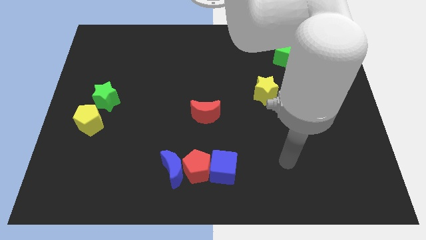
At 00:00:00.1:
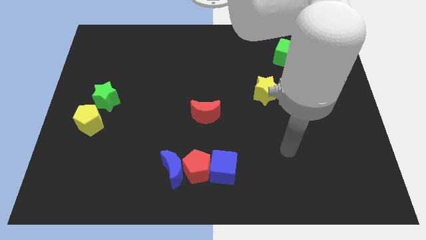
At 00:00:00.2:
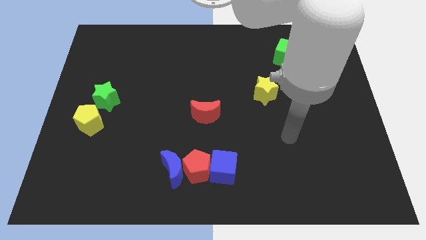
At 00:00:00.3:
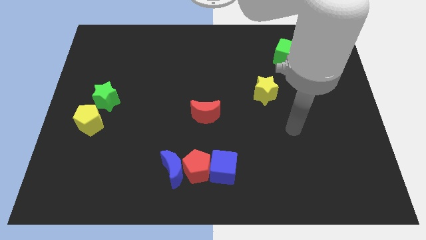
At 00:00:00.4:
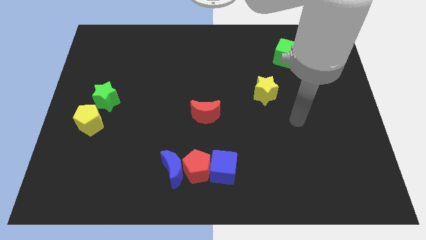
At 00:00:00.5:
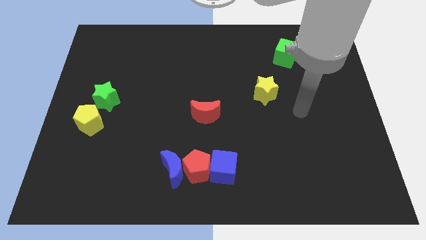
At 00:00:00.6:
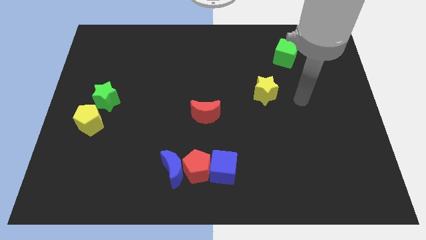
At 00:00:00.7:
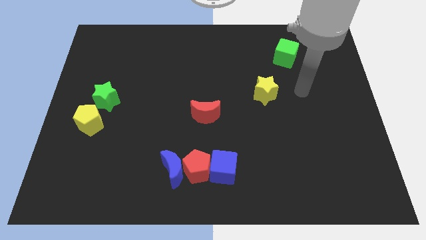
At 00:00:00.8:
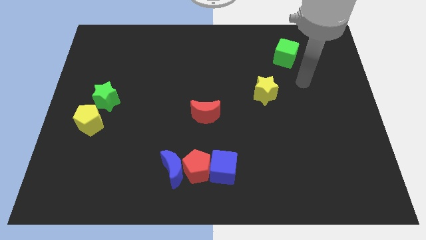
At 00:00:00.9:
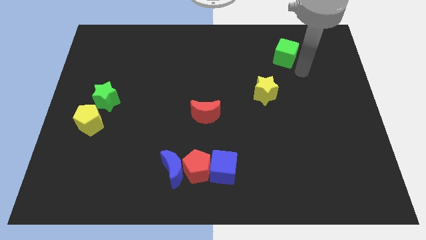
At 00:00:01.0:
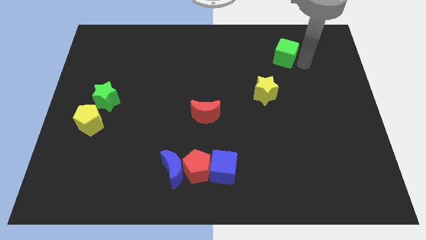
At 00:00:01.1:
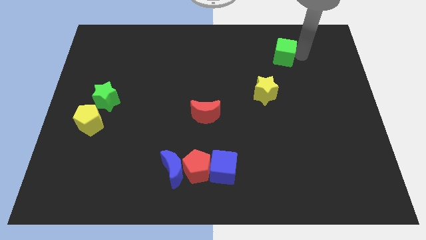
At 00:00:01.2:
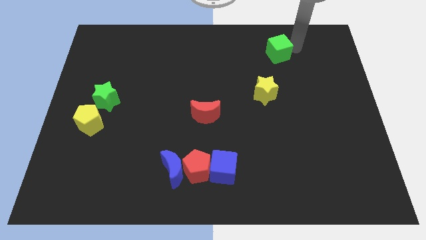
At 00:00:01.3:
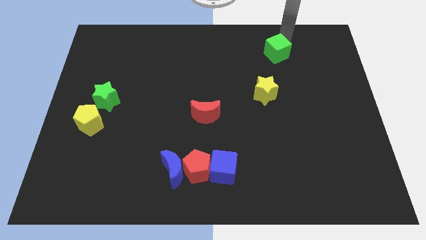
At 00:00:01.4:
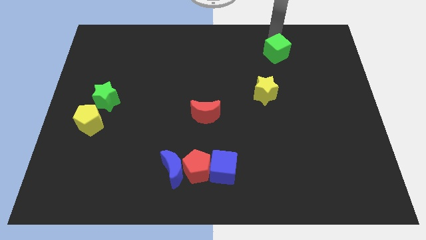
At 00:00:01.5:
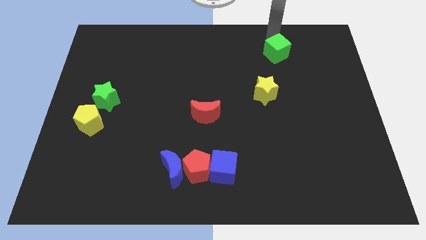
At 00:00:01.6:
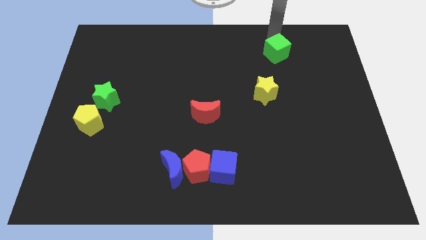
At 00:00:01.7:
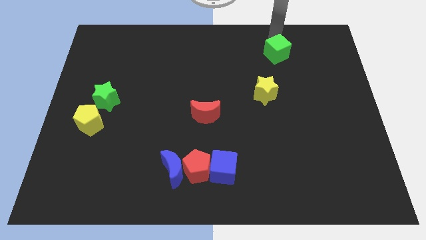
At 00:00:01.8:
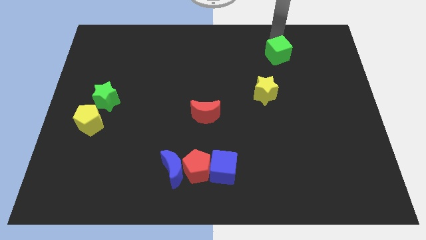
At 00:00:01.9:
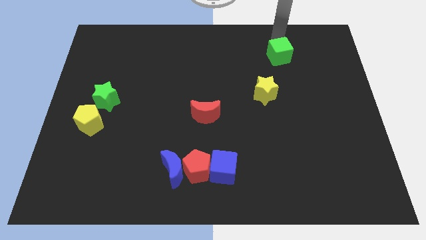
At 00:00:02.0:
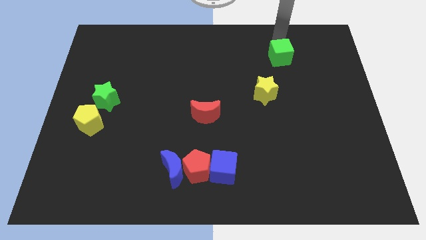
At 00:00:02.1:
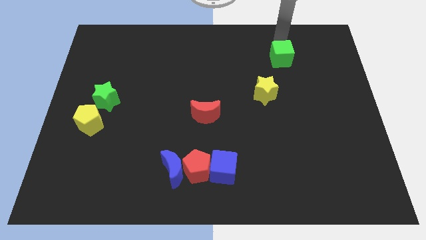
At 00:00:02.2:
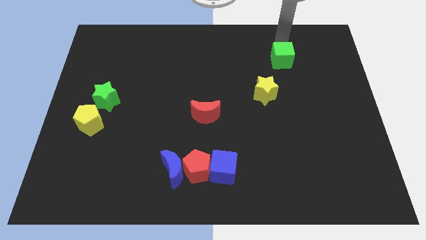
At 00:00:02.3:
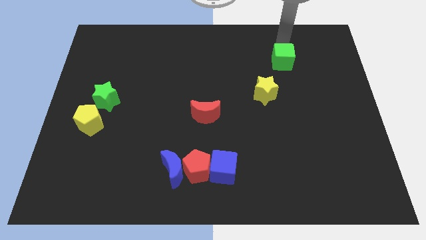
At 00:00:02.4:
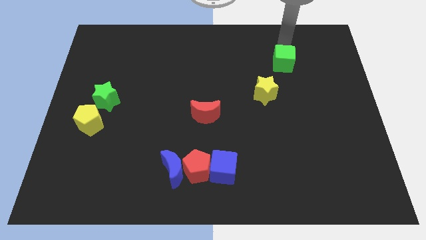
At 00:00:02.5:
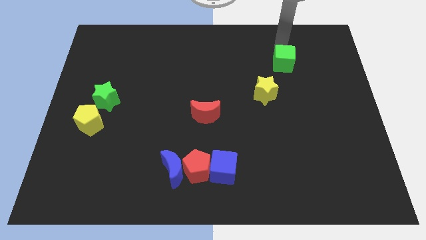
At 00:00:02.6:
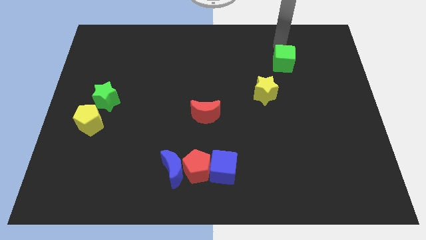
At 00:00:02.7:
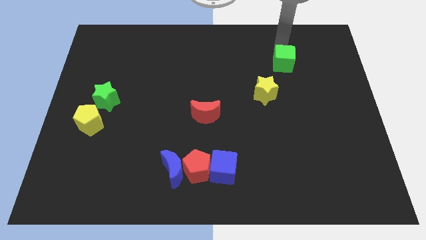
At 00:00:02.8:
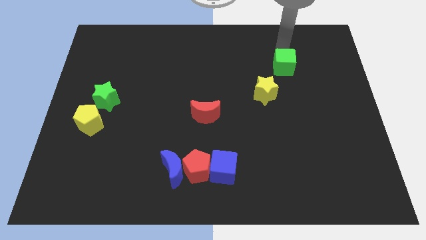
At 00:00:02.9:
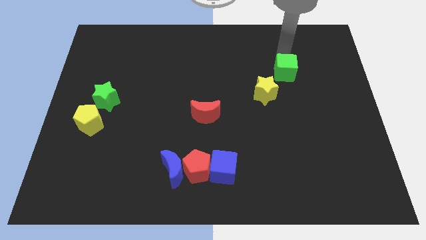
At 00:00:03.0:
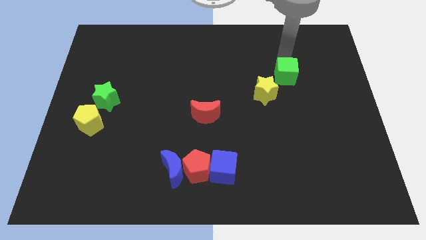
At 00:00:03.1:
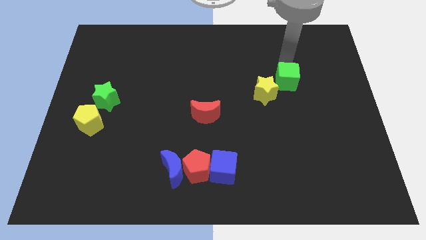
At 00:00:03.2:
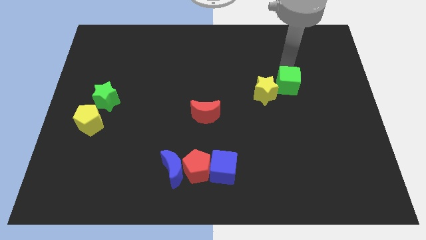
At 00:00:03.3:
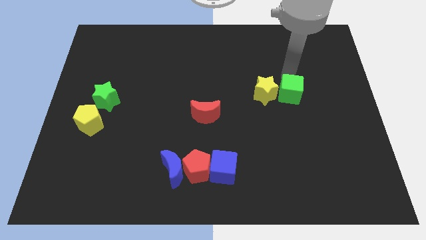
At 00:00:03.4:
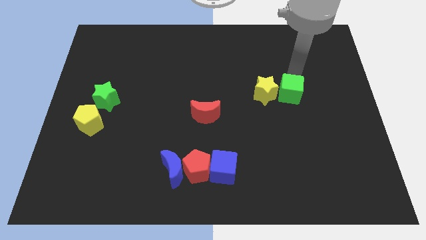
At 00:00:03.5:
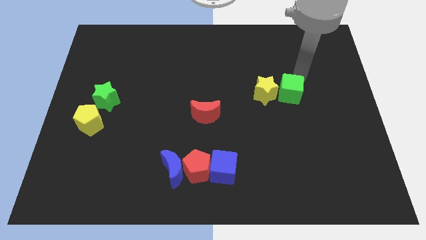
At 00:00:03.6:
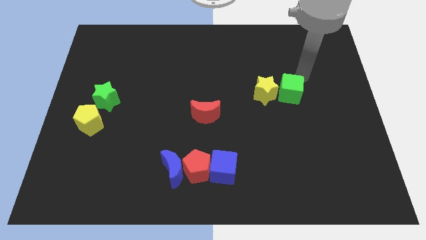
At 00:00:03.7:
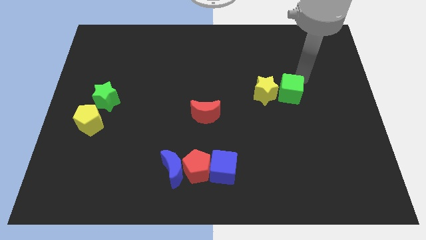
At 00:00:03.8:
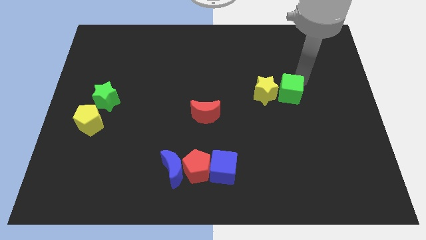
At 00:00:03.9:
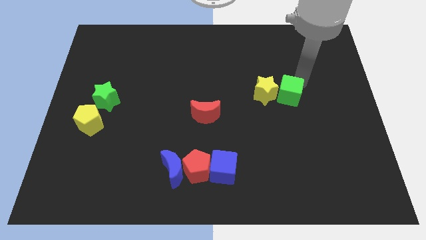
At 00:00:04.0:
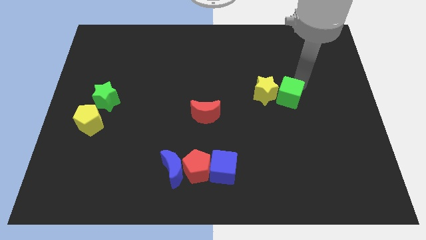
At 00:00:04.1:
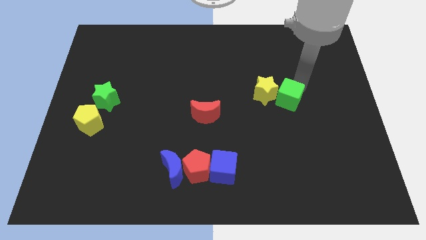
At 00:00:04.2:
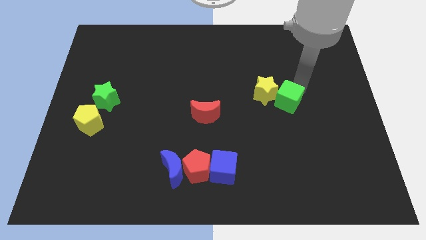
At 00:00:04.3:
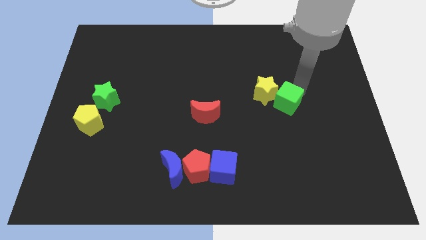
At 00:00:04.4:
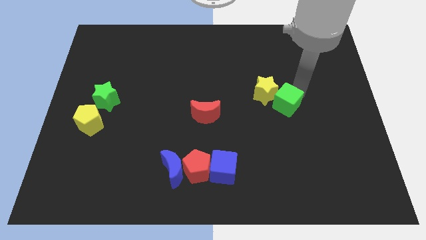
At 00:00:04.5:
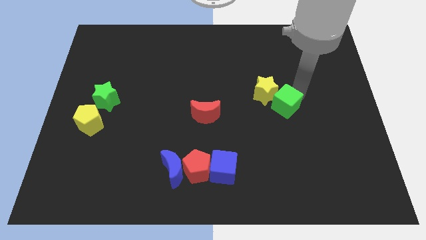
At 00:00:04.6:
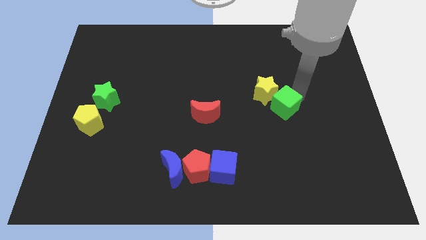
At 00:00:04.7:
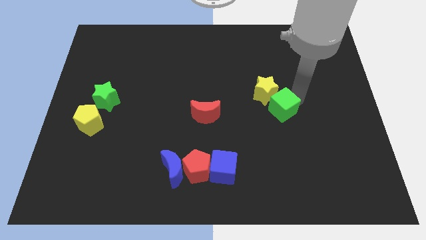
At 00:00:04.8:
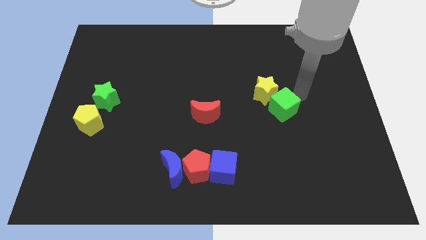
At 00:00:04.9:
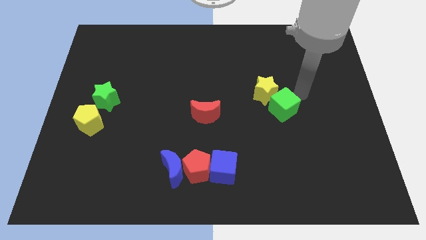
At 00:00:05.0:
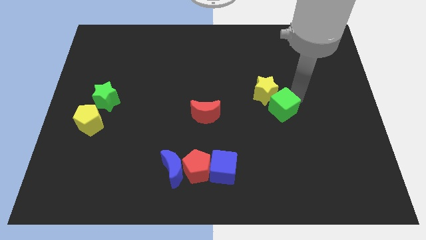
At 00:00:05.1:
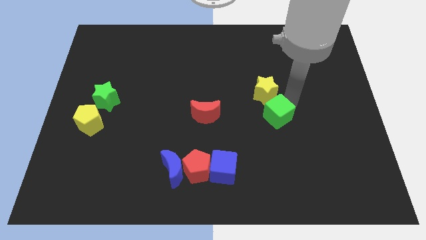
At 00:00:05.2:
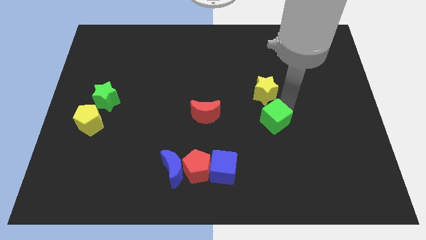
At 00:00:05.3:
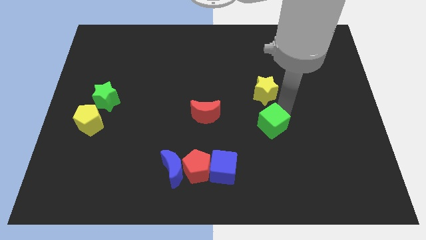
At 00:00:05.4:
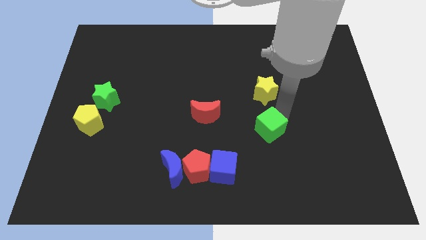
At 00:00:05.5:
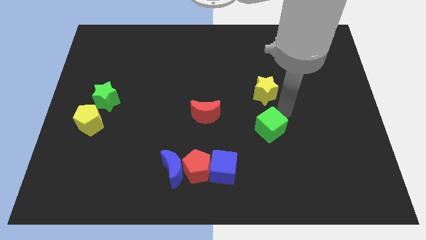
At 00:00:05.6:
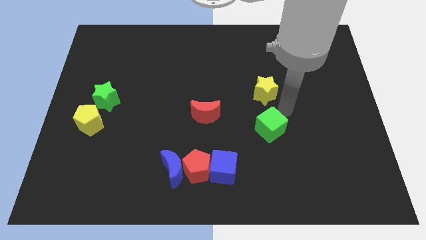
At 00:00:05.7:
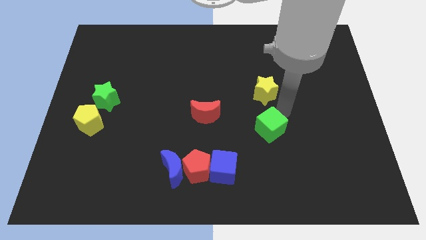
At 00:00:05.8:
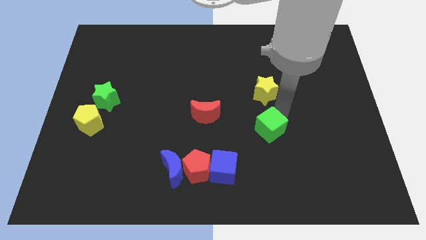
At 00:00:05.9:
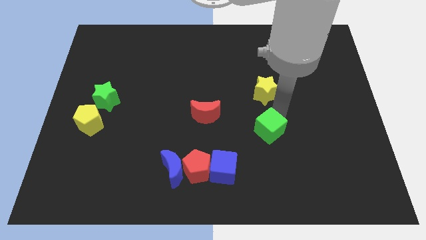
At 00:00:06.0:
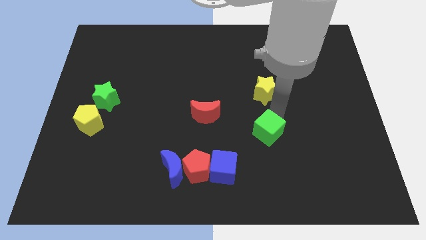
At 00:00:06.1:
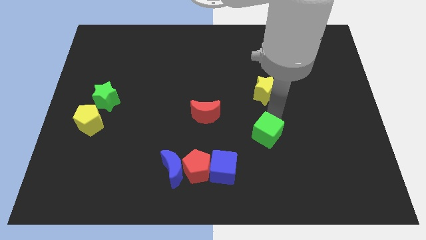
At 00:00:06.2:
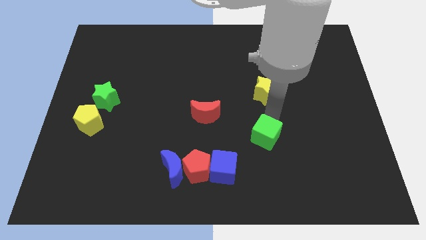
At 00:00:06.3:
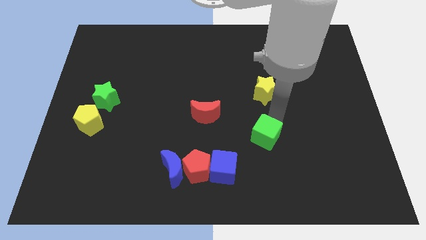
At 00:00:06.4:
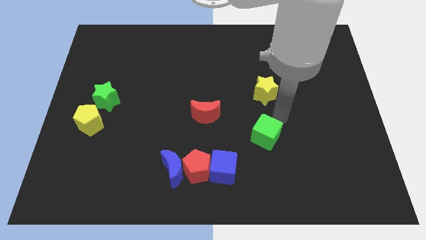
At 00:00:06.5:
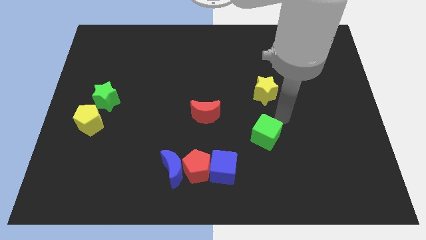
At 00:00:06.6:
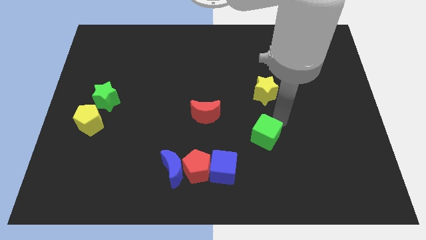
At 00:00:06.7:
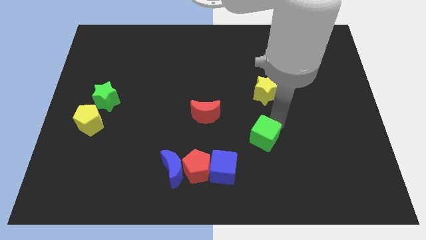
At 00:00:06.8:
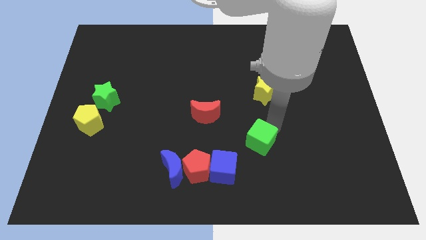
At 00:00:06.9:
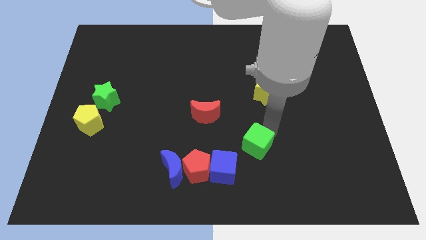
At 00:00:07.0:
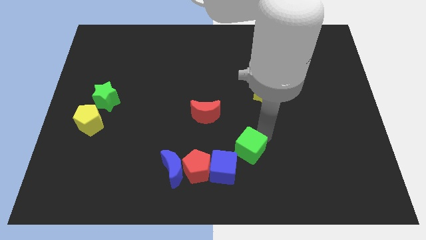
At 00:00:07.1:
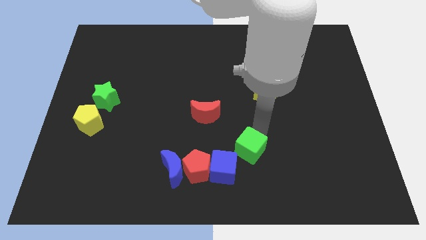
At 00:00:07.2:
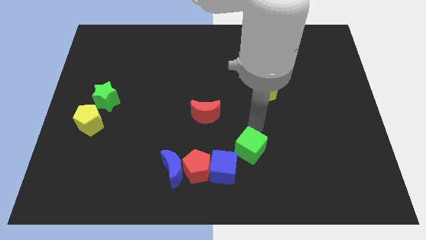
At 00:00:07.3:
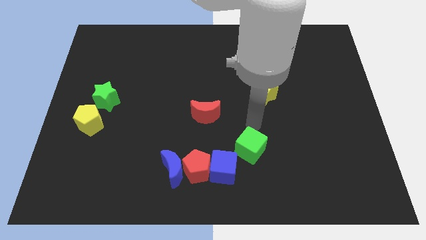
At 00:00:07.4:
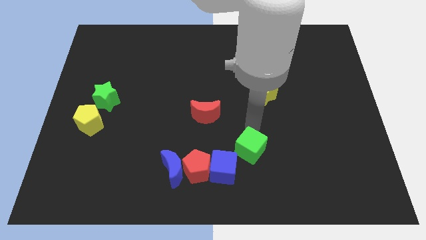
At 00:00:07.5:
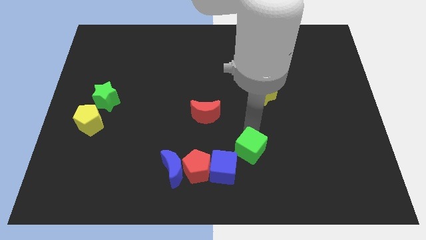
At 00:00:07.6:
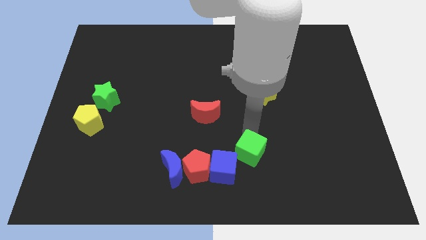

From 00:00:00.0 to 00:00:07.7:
put the green cube right of the red pentagon

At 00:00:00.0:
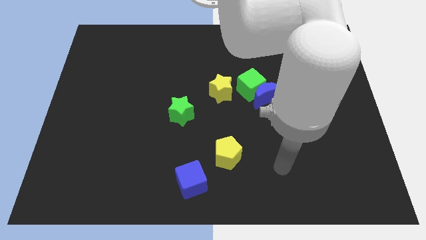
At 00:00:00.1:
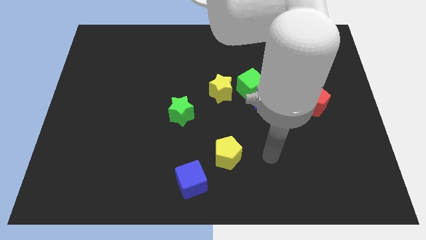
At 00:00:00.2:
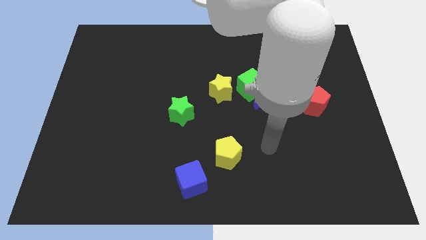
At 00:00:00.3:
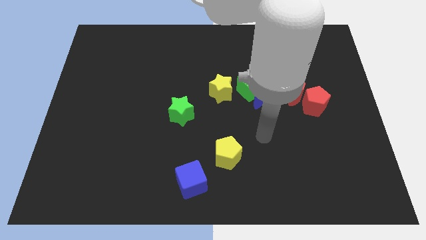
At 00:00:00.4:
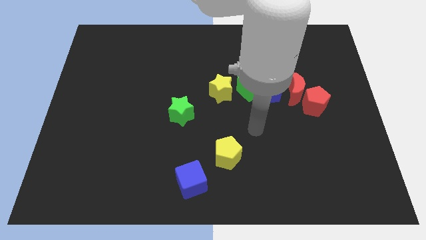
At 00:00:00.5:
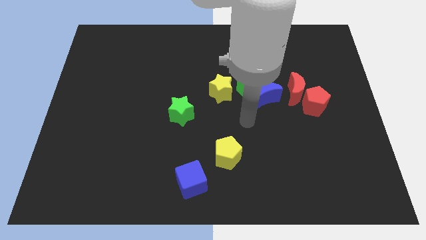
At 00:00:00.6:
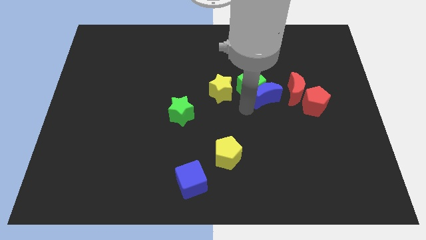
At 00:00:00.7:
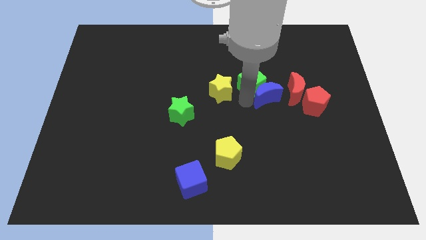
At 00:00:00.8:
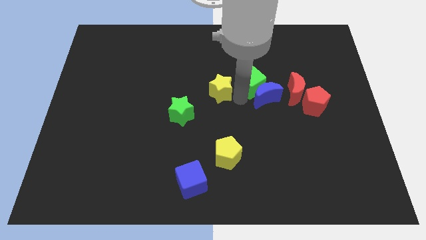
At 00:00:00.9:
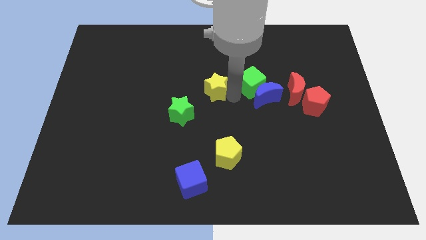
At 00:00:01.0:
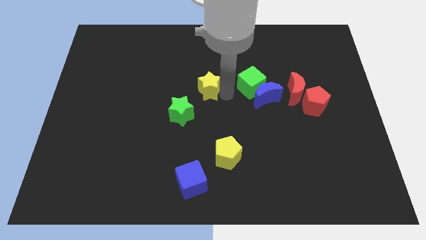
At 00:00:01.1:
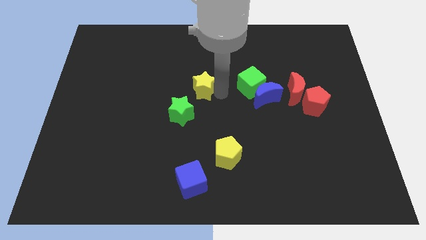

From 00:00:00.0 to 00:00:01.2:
move the yellow star to the top of the green star
